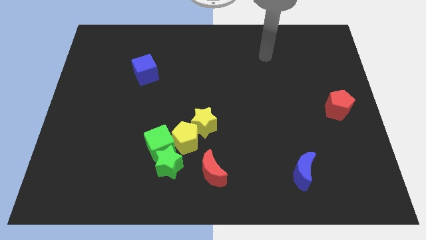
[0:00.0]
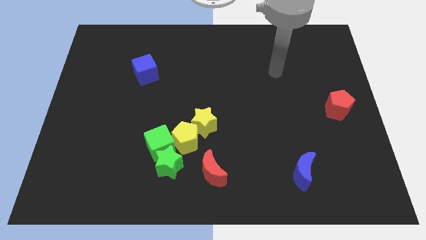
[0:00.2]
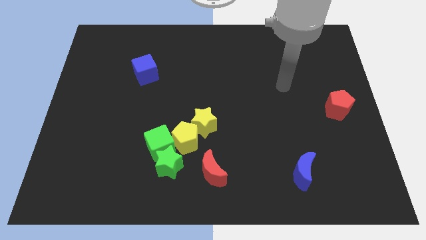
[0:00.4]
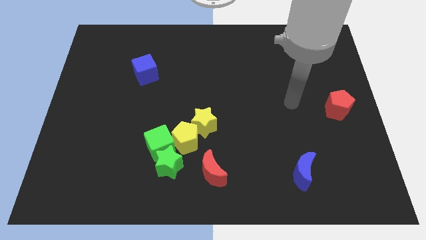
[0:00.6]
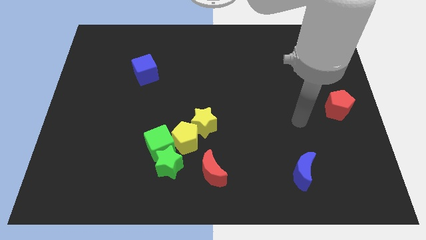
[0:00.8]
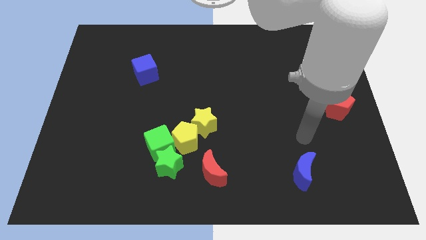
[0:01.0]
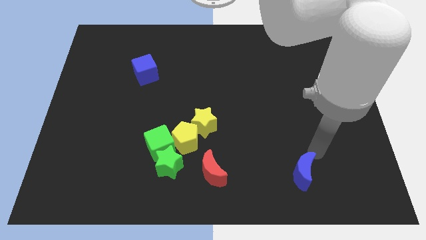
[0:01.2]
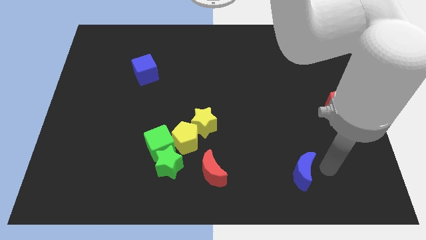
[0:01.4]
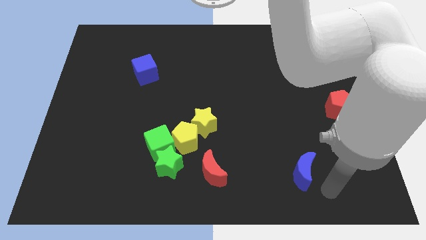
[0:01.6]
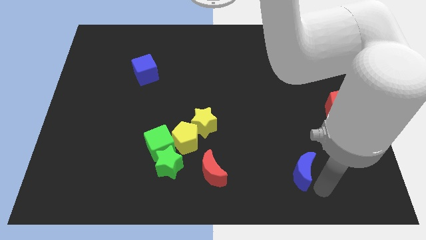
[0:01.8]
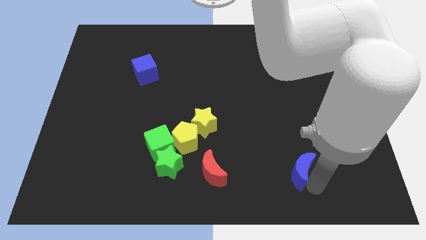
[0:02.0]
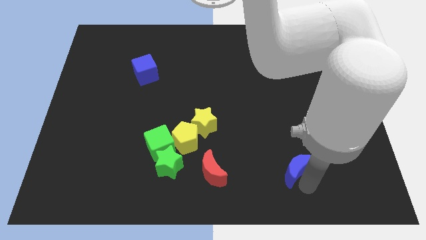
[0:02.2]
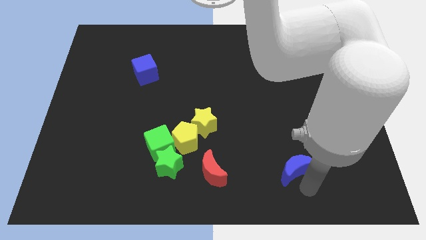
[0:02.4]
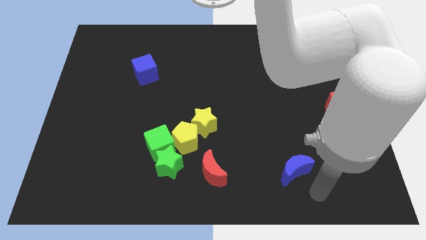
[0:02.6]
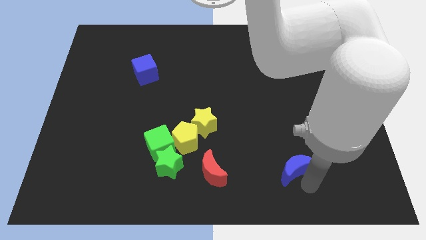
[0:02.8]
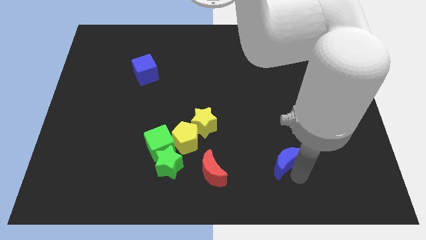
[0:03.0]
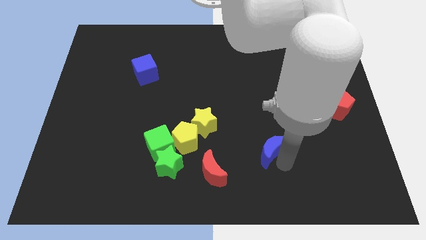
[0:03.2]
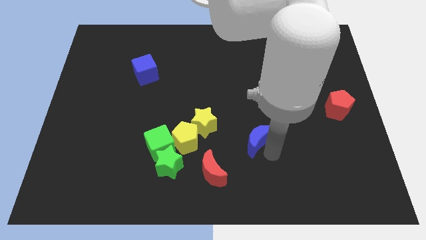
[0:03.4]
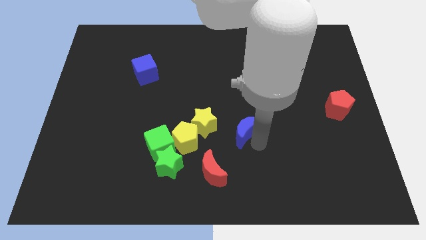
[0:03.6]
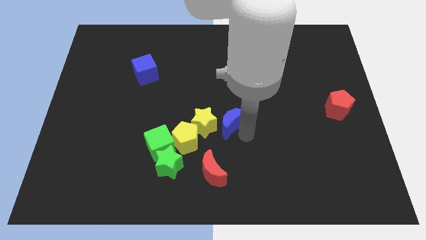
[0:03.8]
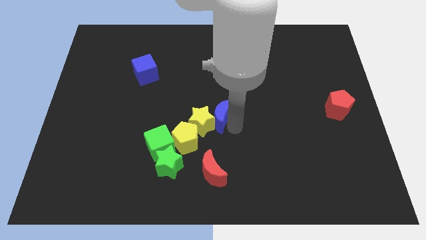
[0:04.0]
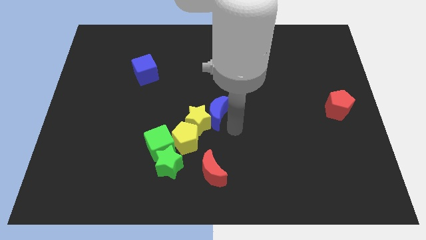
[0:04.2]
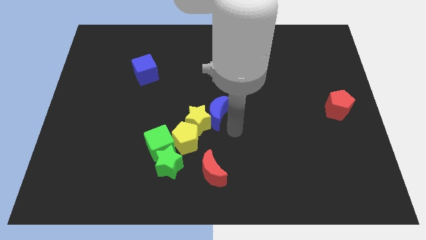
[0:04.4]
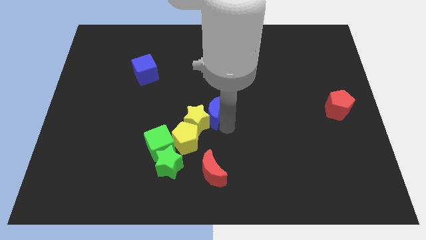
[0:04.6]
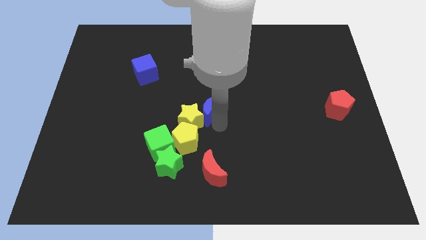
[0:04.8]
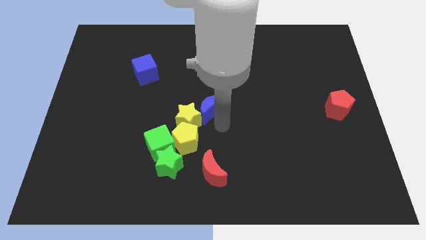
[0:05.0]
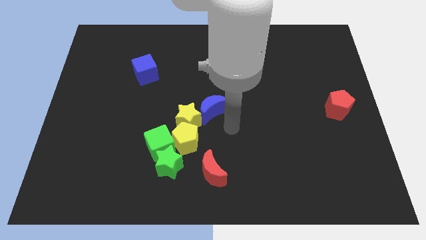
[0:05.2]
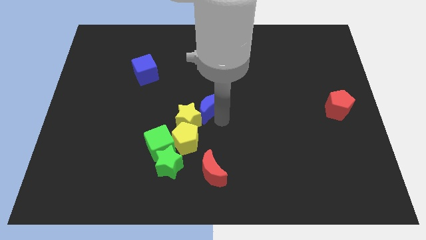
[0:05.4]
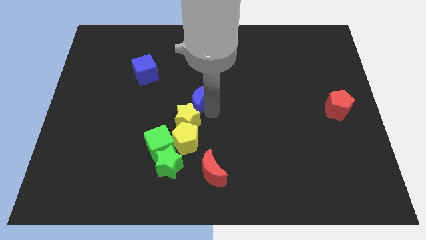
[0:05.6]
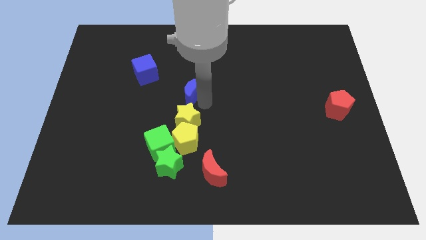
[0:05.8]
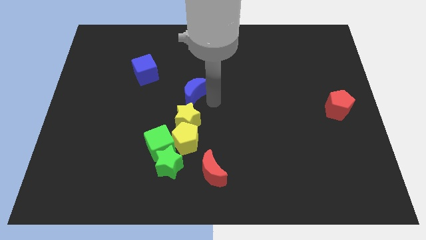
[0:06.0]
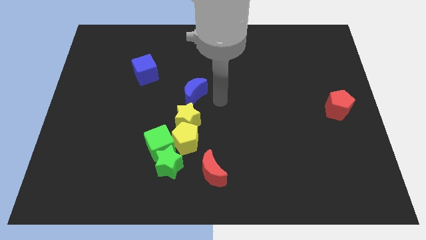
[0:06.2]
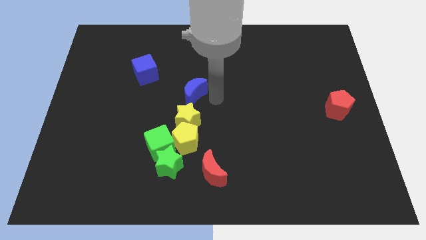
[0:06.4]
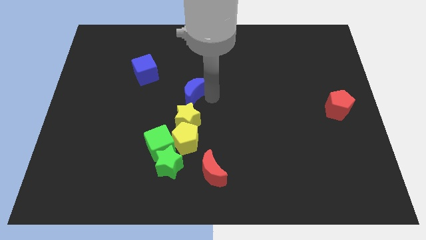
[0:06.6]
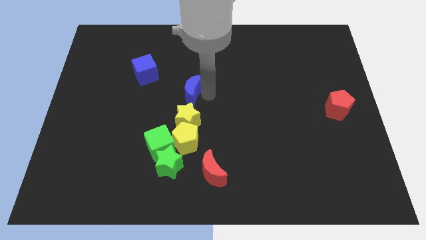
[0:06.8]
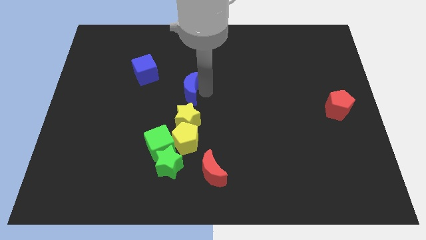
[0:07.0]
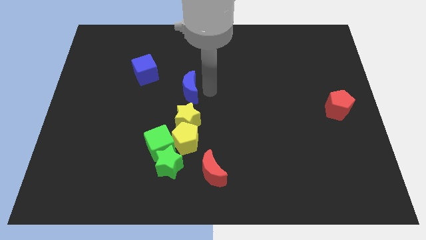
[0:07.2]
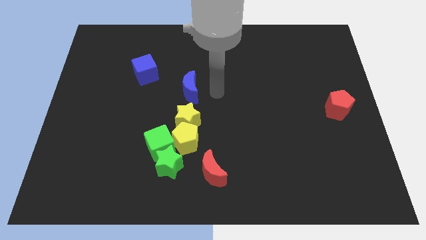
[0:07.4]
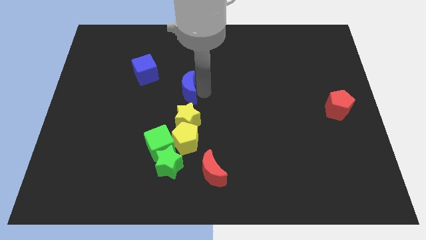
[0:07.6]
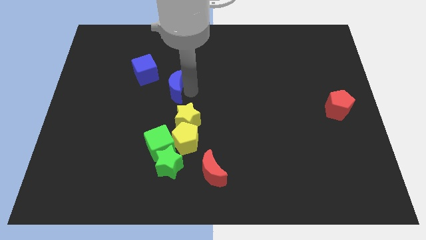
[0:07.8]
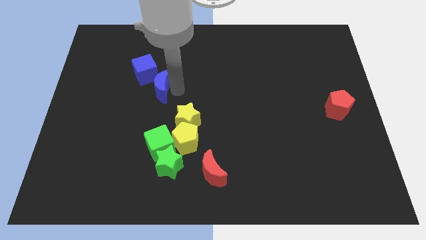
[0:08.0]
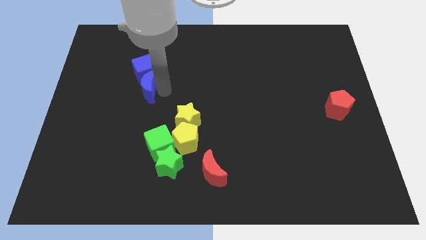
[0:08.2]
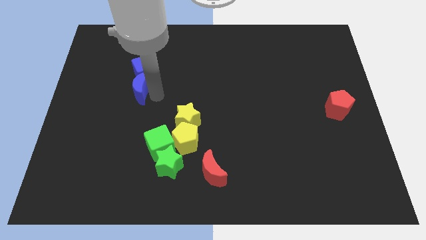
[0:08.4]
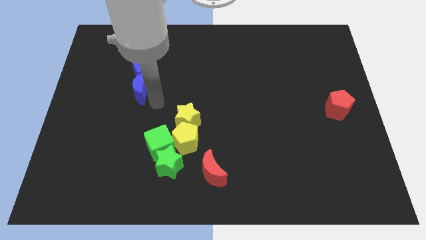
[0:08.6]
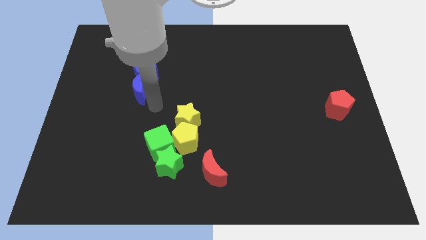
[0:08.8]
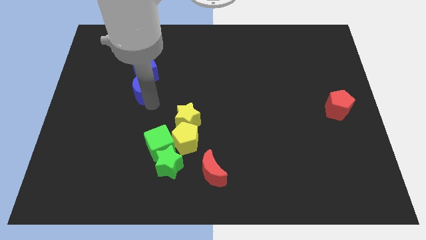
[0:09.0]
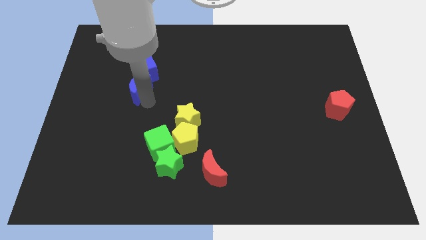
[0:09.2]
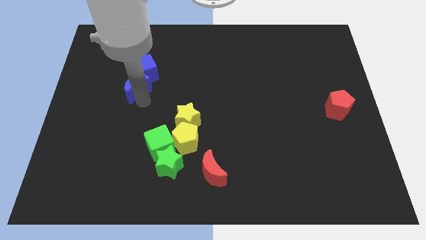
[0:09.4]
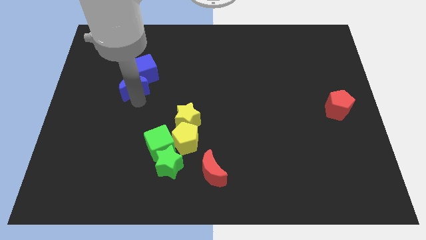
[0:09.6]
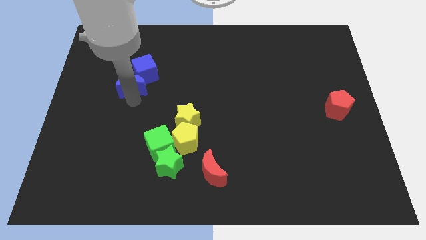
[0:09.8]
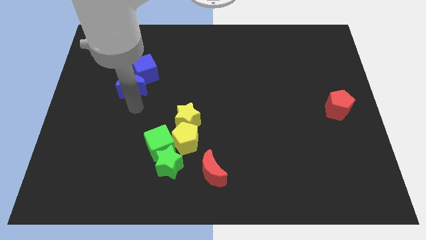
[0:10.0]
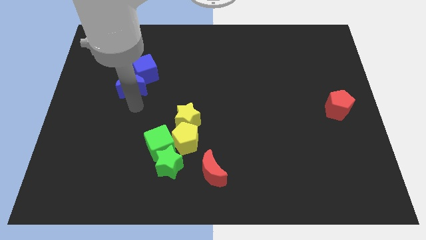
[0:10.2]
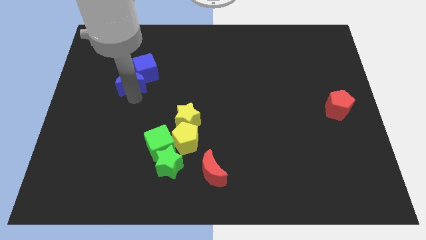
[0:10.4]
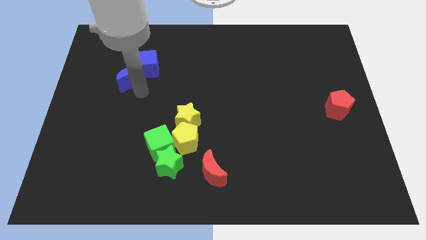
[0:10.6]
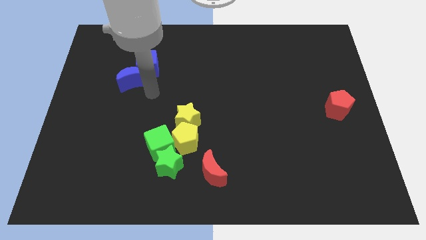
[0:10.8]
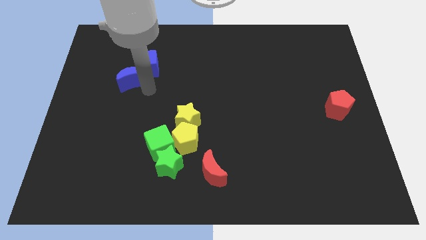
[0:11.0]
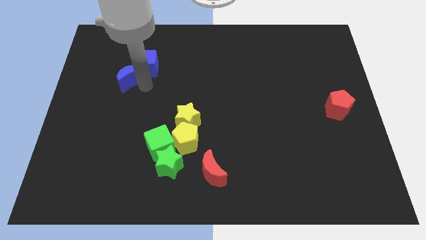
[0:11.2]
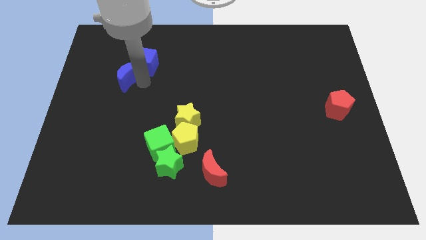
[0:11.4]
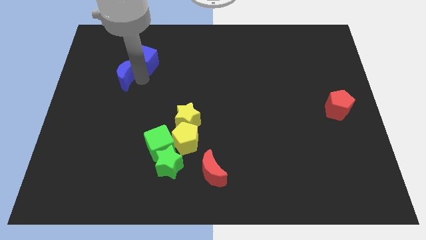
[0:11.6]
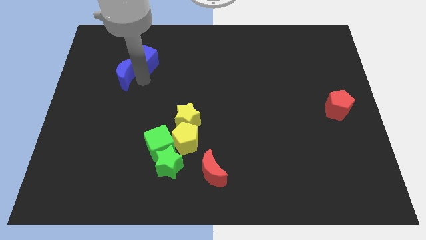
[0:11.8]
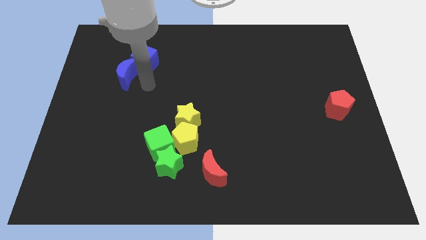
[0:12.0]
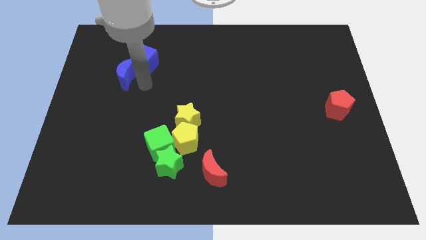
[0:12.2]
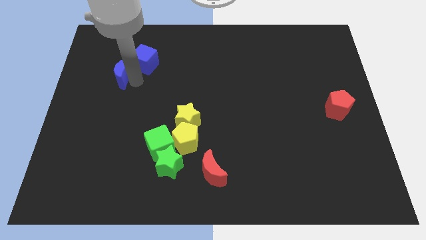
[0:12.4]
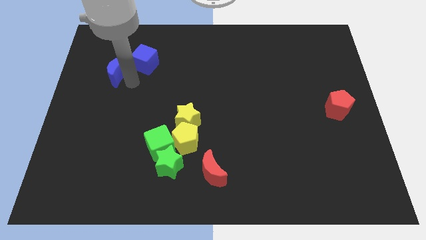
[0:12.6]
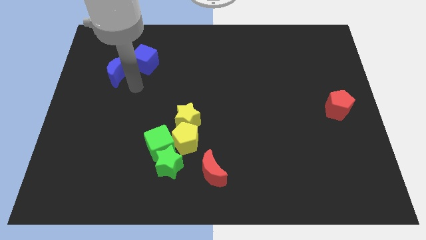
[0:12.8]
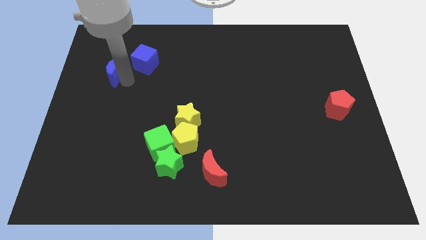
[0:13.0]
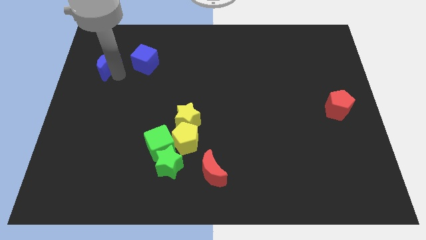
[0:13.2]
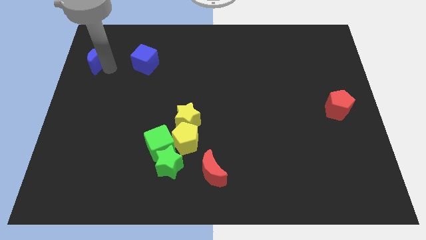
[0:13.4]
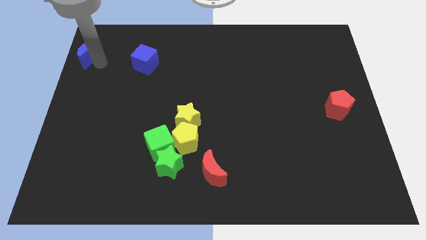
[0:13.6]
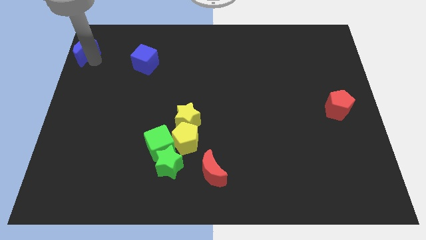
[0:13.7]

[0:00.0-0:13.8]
move the blue moon to the upper left corner
